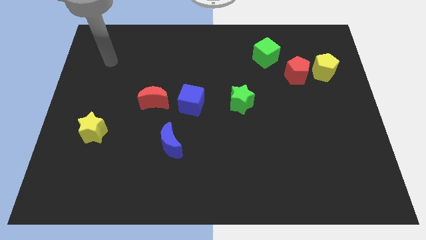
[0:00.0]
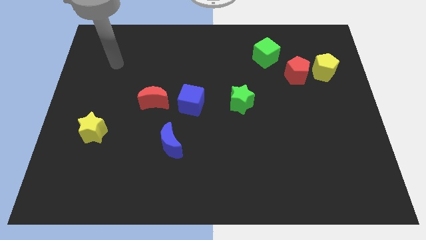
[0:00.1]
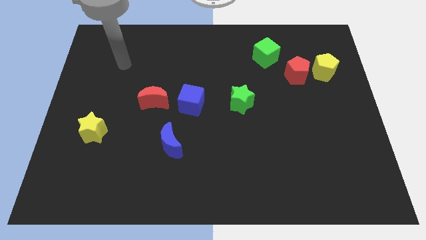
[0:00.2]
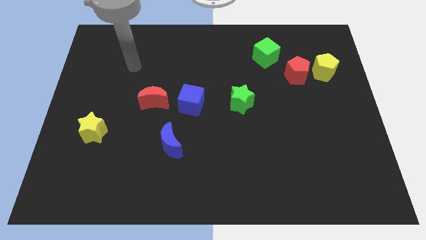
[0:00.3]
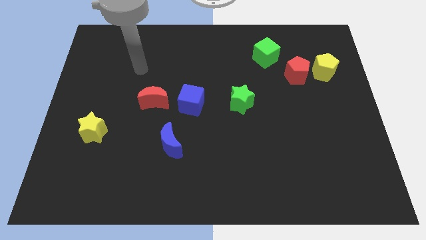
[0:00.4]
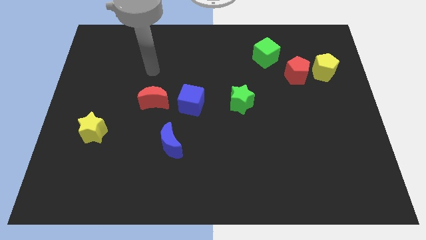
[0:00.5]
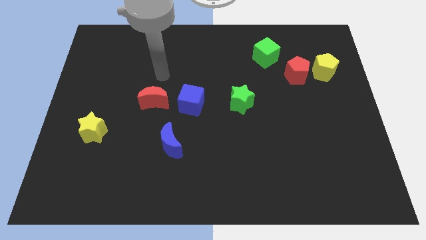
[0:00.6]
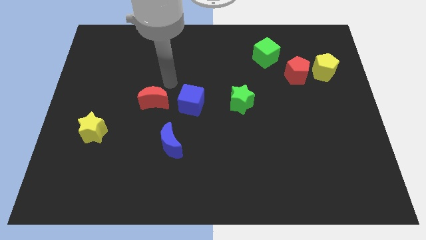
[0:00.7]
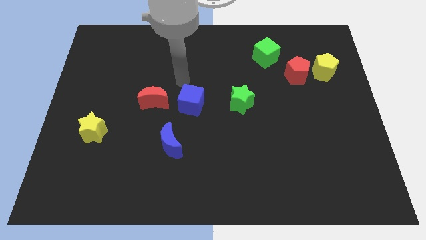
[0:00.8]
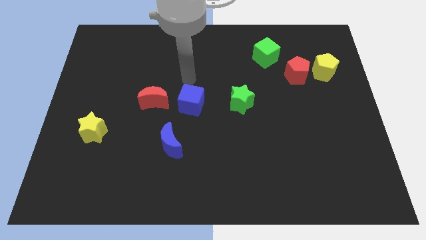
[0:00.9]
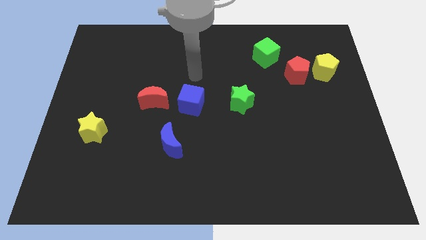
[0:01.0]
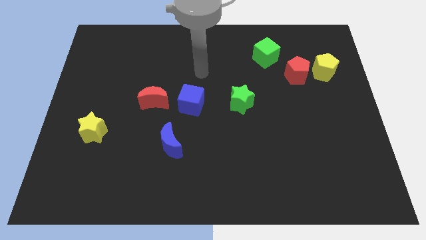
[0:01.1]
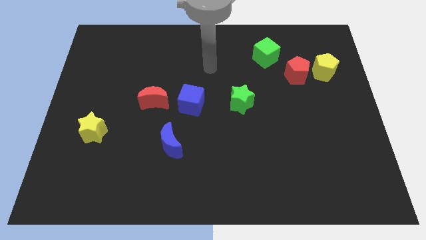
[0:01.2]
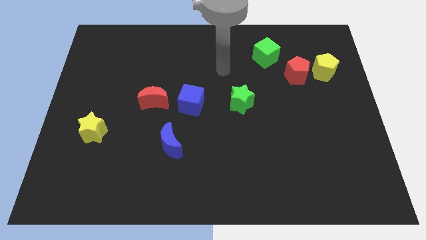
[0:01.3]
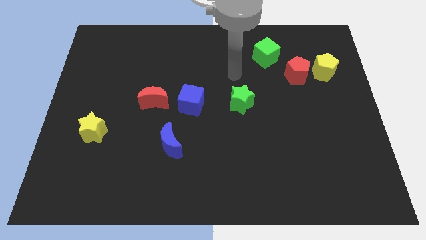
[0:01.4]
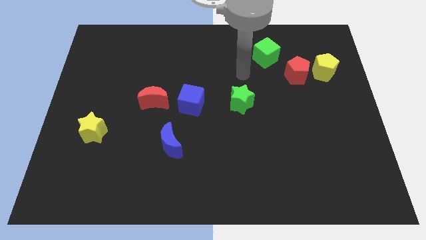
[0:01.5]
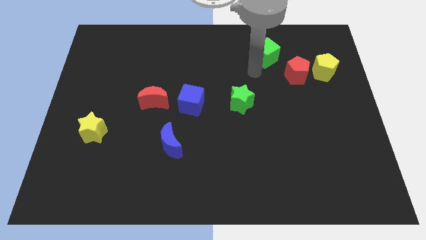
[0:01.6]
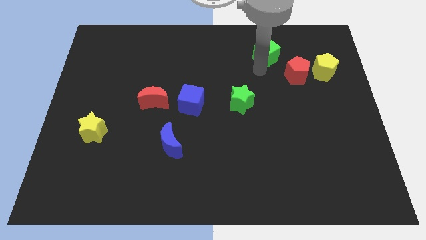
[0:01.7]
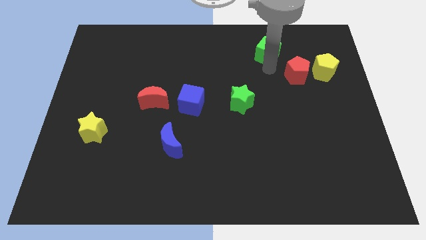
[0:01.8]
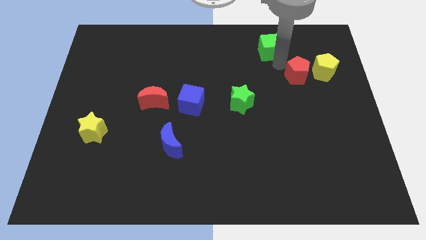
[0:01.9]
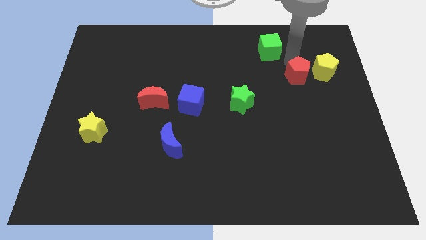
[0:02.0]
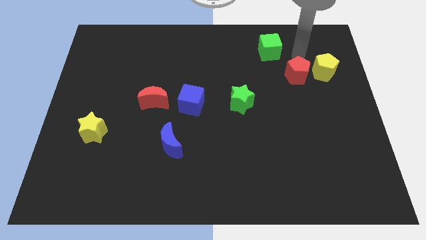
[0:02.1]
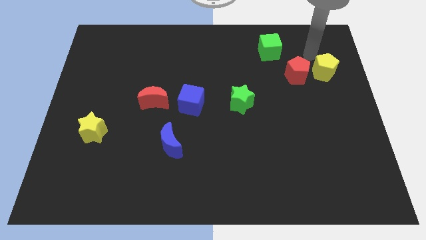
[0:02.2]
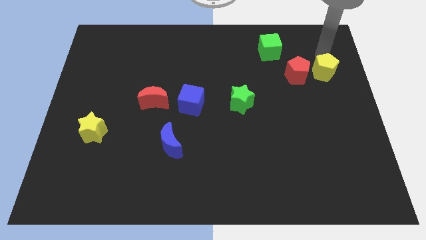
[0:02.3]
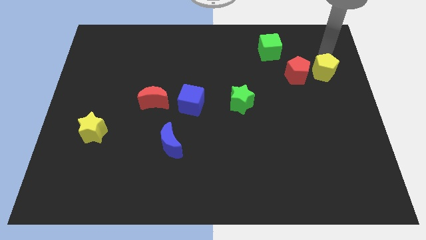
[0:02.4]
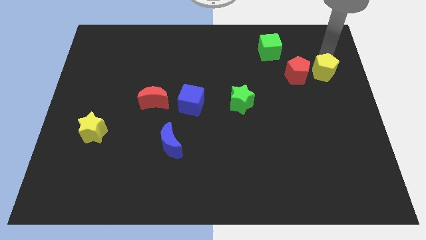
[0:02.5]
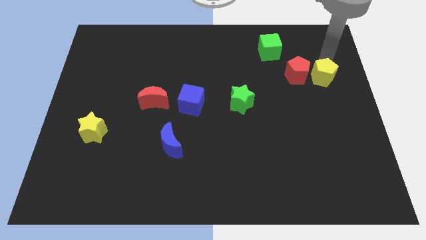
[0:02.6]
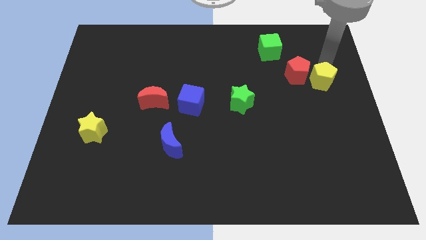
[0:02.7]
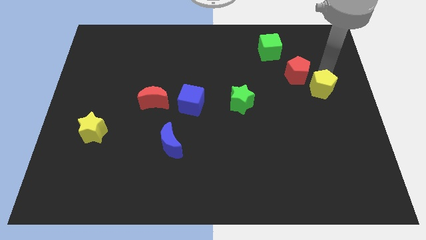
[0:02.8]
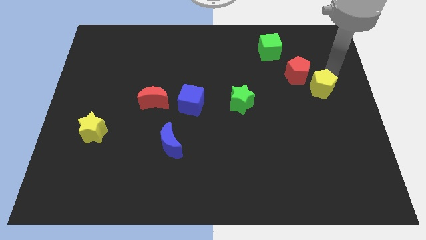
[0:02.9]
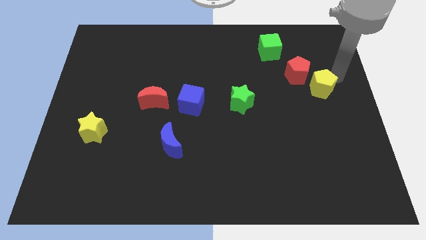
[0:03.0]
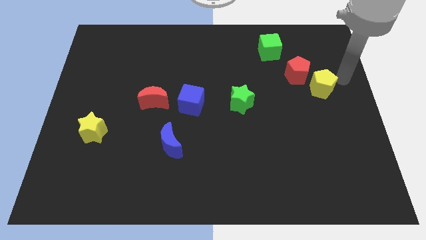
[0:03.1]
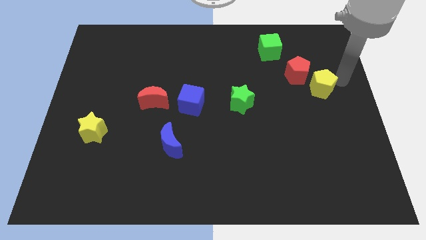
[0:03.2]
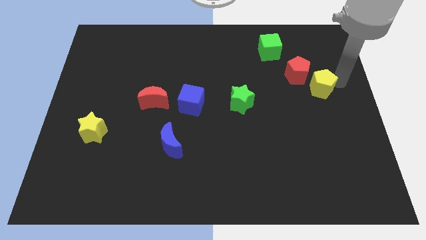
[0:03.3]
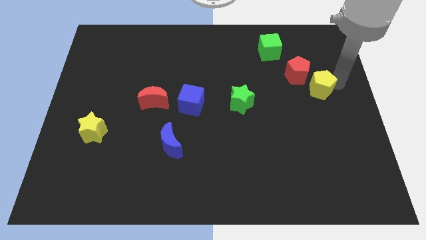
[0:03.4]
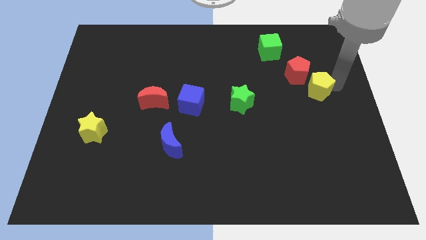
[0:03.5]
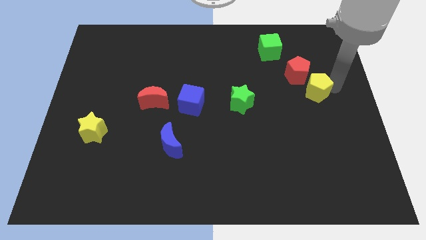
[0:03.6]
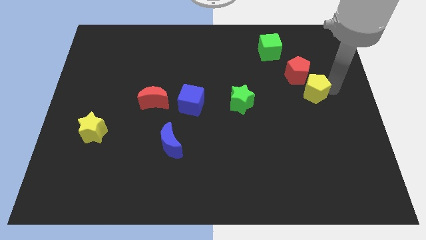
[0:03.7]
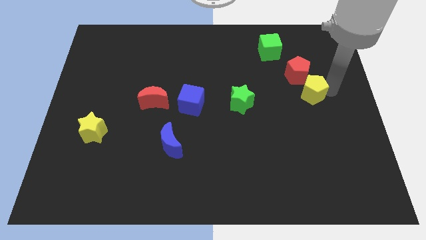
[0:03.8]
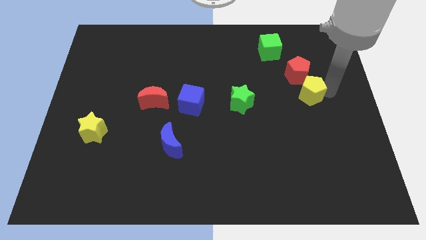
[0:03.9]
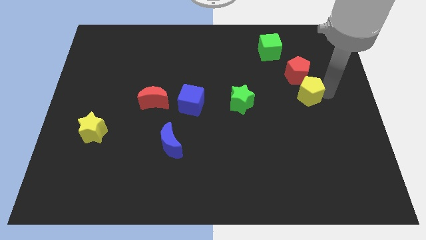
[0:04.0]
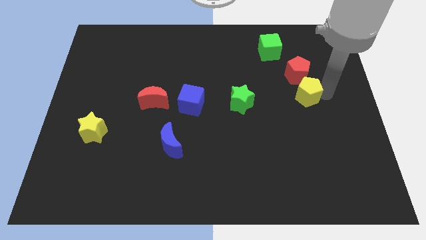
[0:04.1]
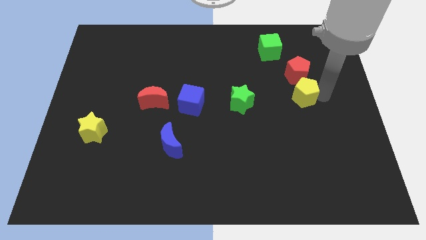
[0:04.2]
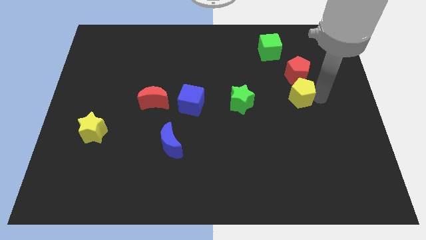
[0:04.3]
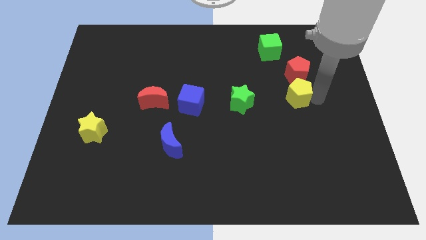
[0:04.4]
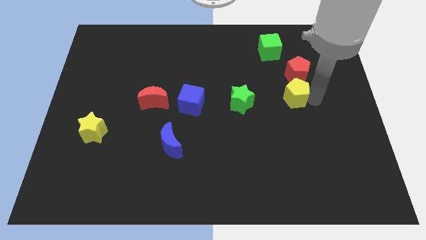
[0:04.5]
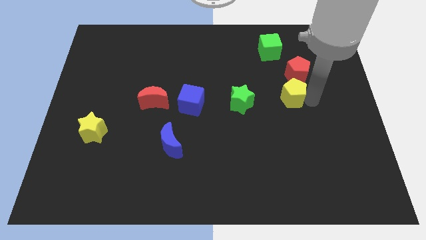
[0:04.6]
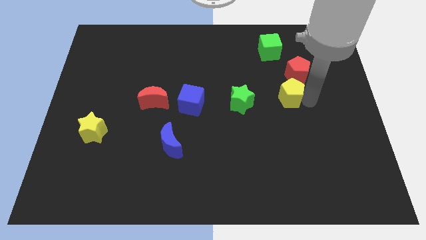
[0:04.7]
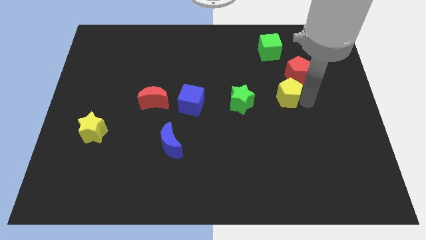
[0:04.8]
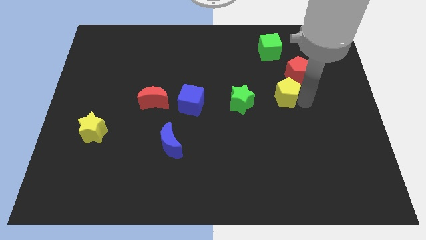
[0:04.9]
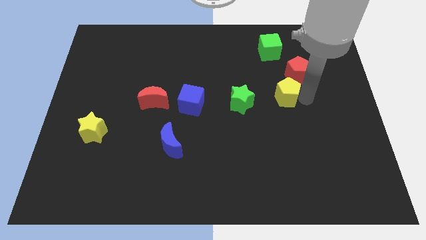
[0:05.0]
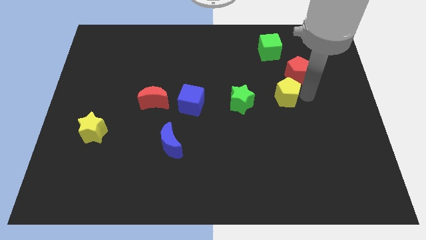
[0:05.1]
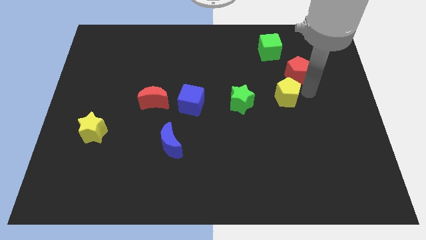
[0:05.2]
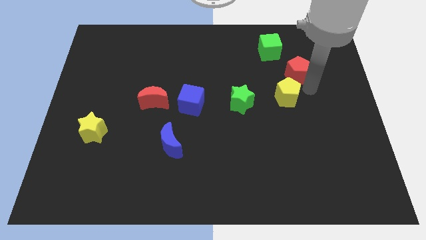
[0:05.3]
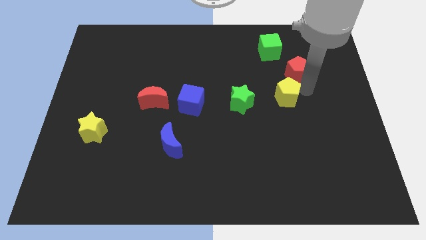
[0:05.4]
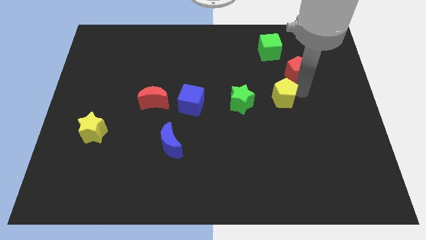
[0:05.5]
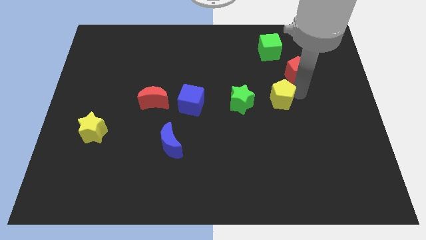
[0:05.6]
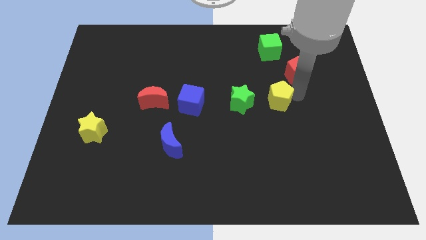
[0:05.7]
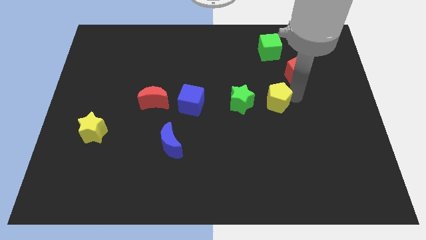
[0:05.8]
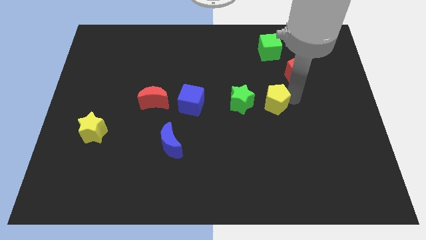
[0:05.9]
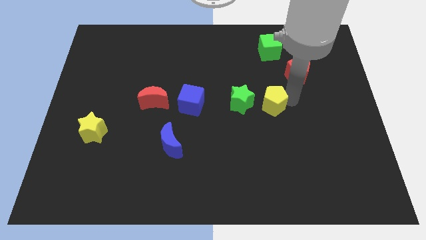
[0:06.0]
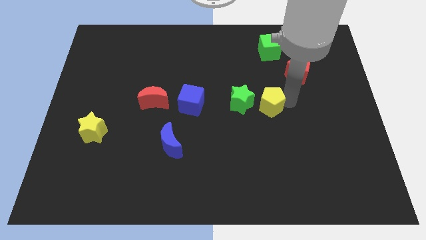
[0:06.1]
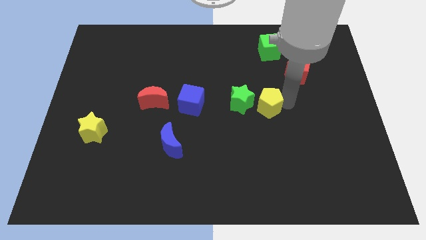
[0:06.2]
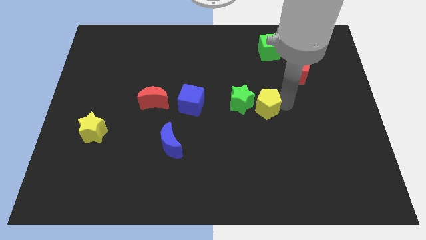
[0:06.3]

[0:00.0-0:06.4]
put the yellow pentagon to the green star

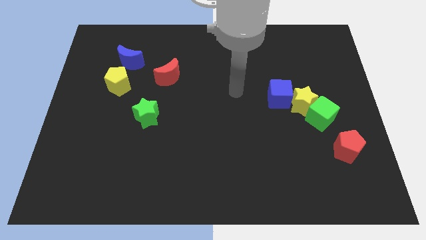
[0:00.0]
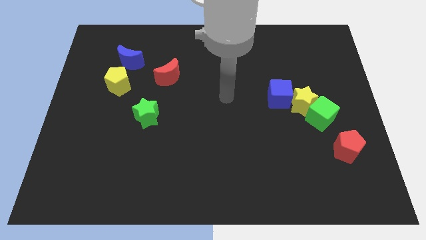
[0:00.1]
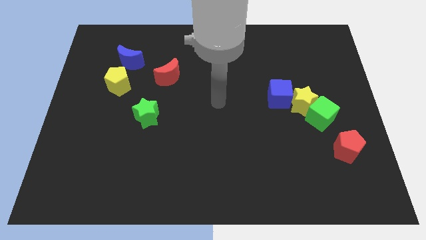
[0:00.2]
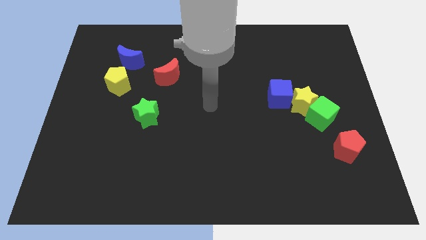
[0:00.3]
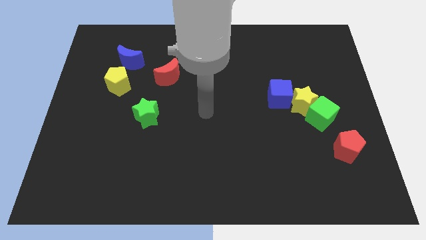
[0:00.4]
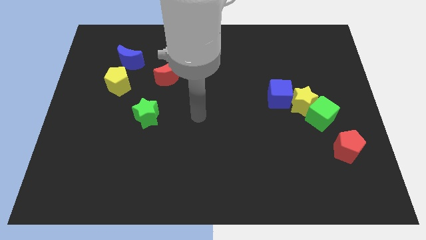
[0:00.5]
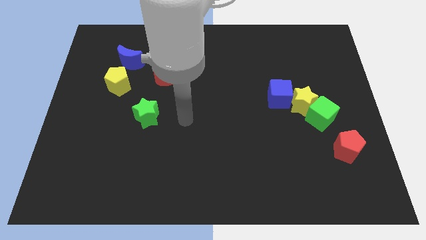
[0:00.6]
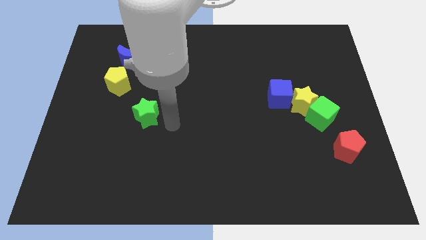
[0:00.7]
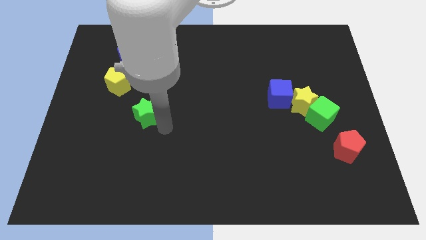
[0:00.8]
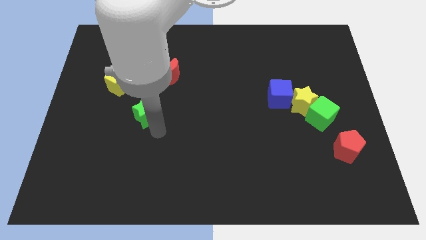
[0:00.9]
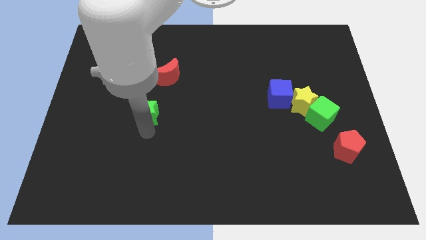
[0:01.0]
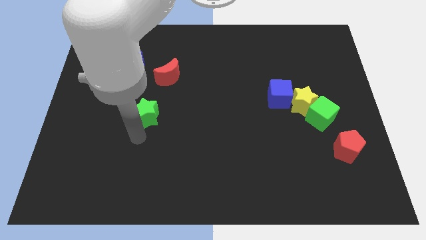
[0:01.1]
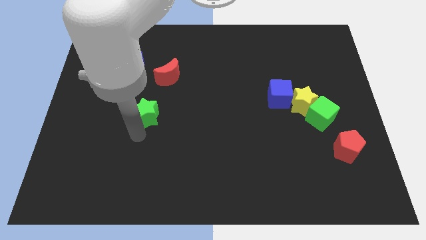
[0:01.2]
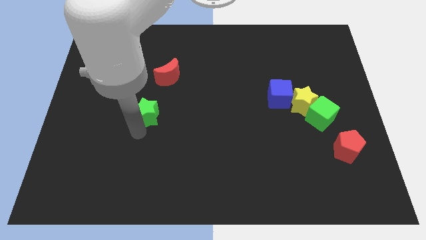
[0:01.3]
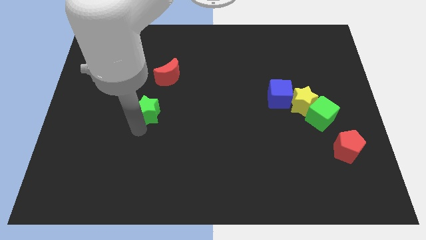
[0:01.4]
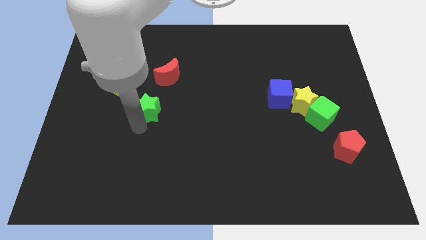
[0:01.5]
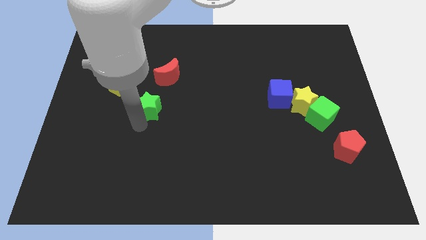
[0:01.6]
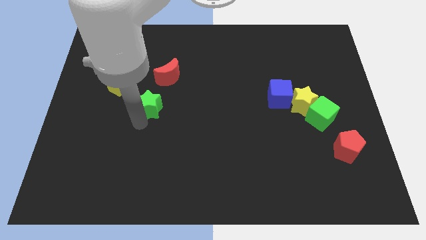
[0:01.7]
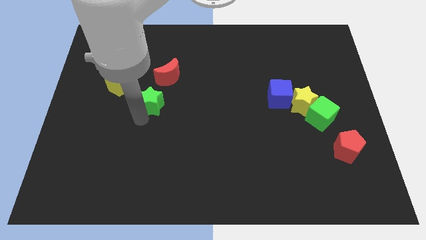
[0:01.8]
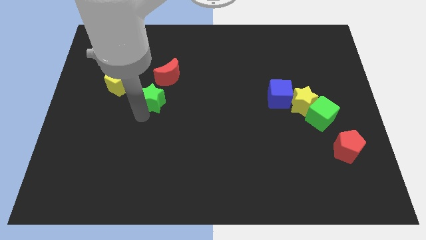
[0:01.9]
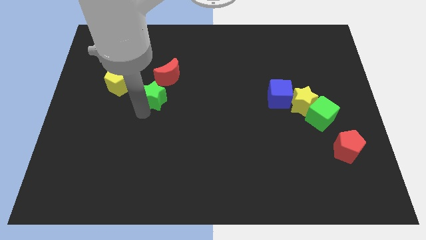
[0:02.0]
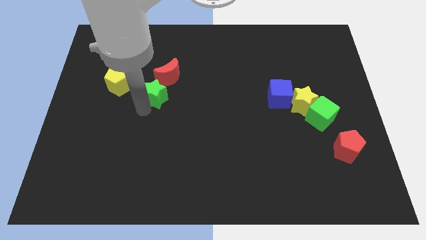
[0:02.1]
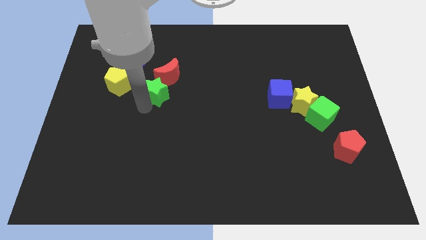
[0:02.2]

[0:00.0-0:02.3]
move the green star towards the red moon
